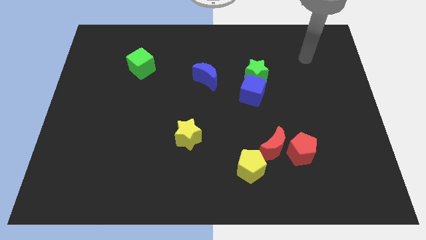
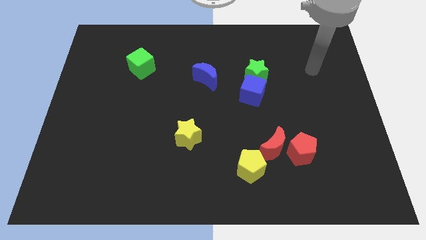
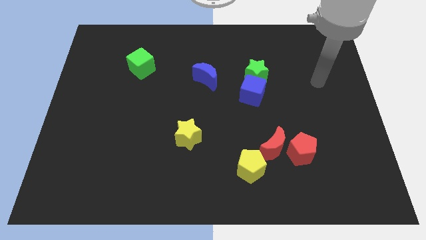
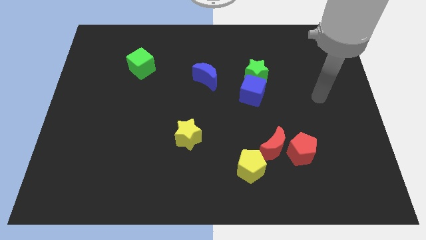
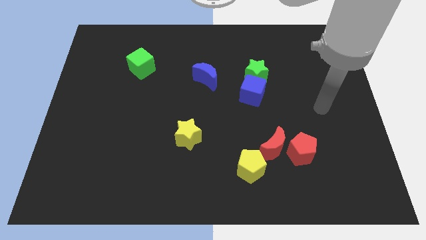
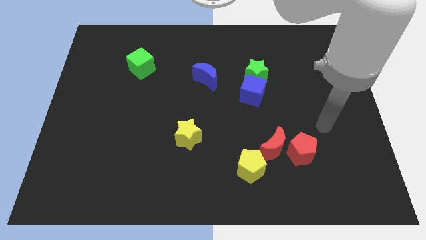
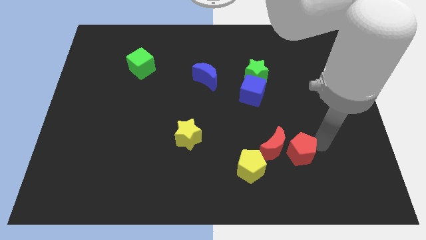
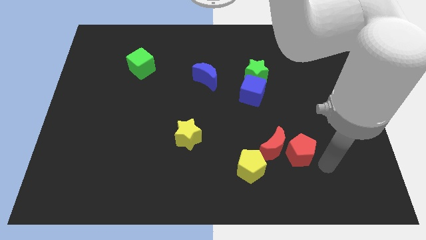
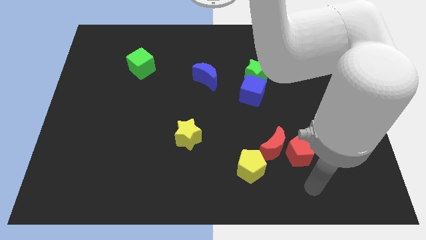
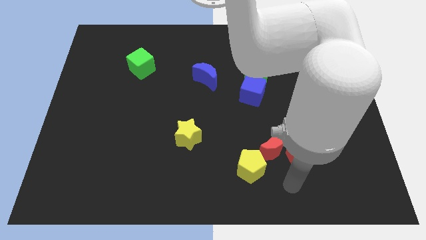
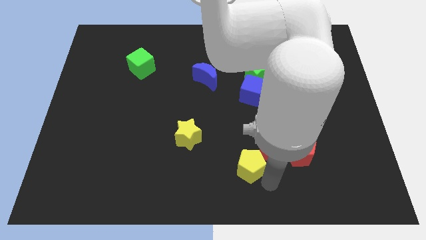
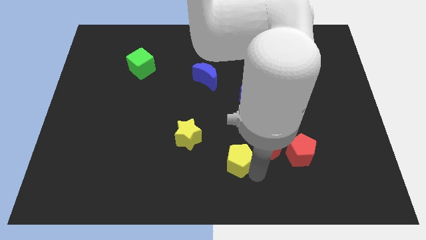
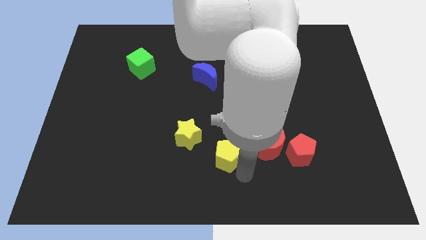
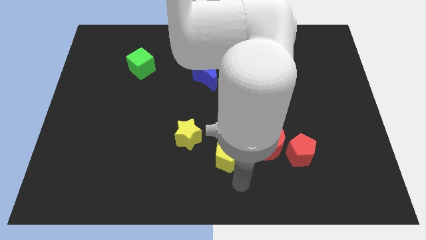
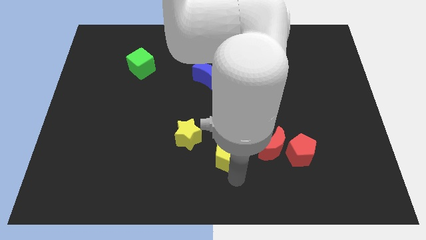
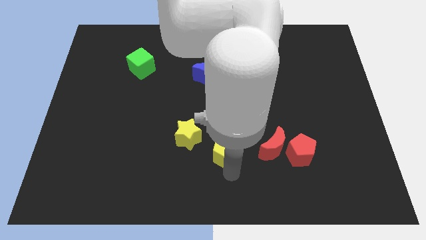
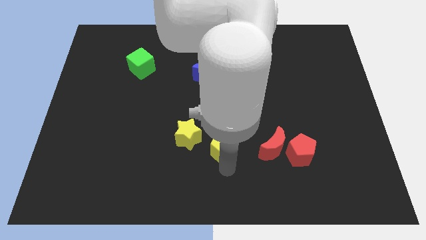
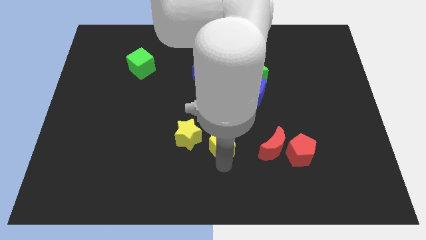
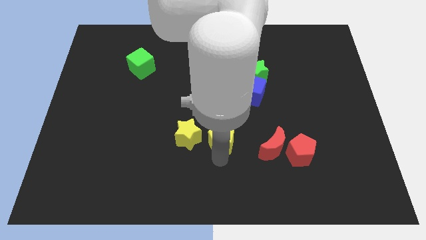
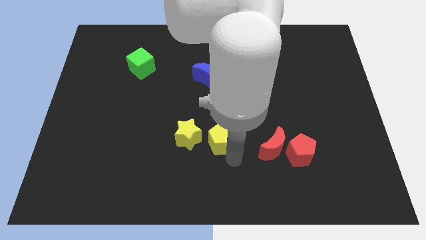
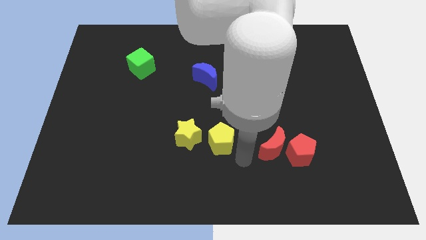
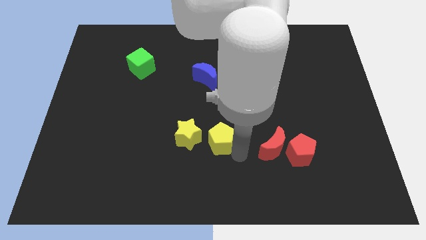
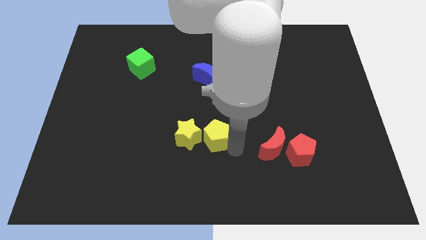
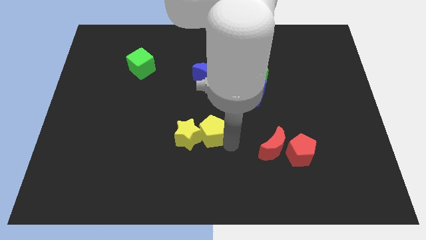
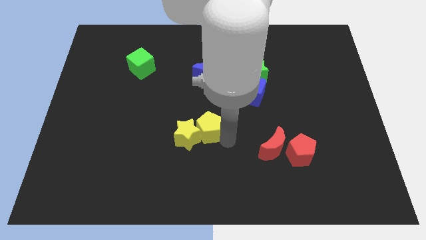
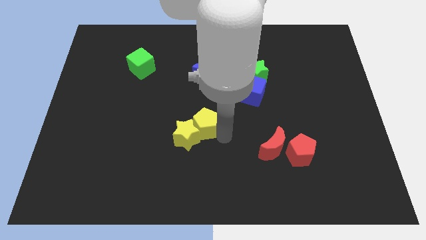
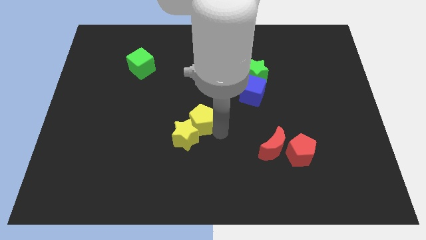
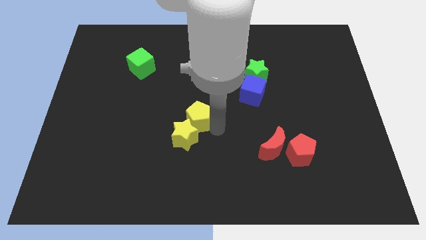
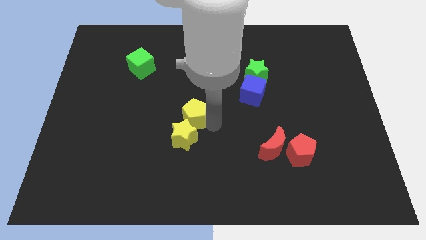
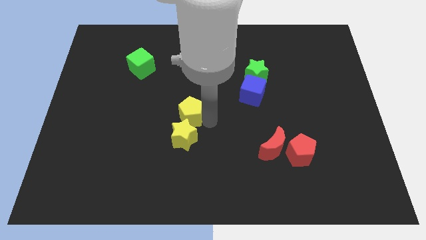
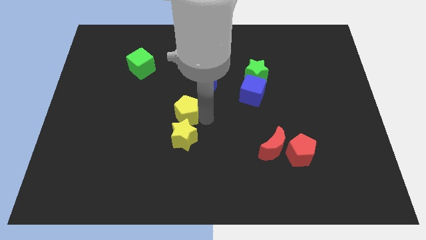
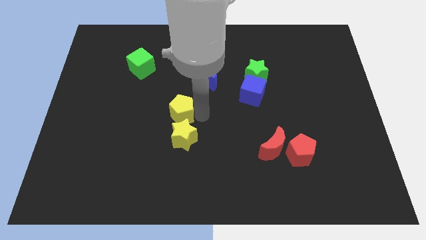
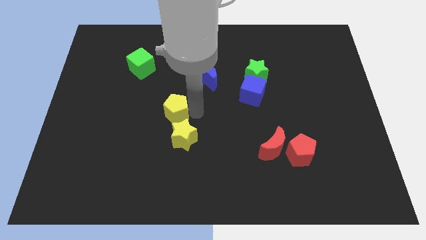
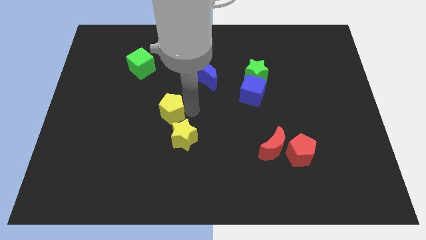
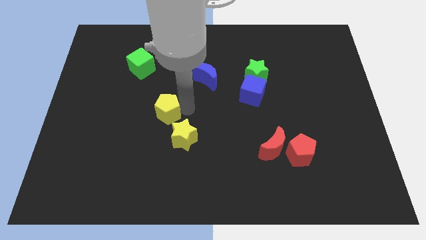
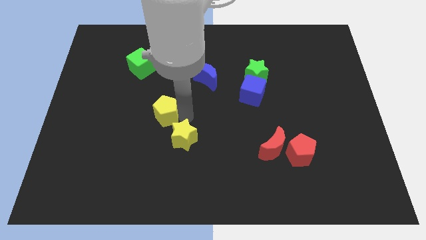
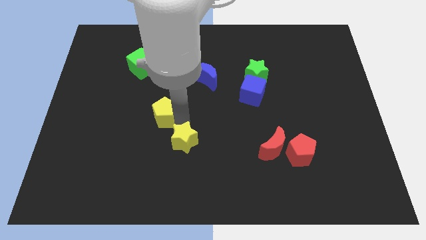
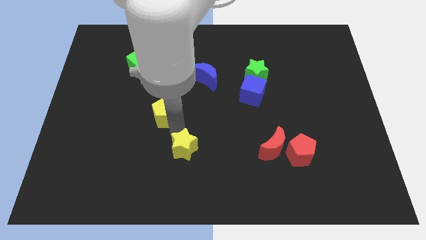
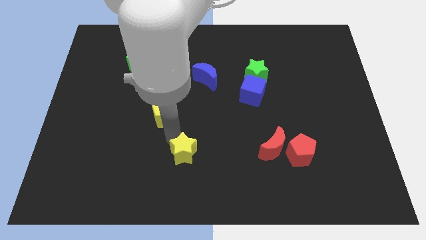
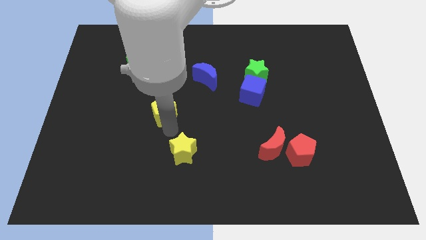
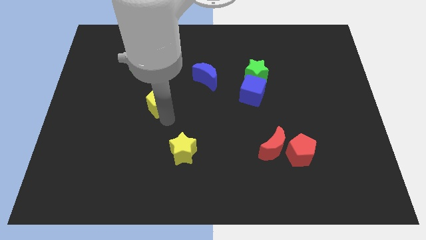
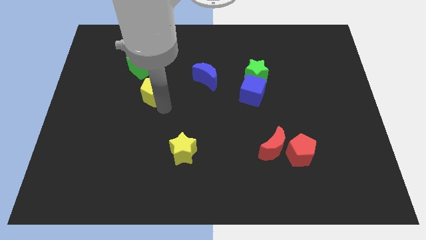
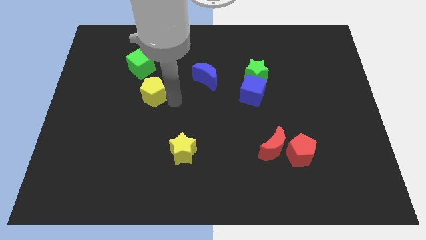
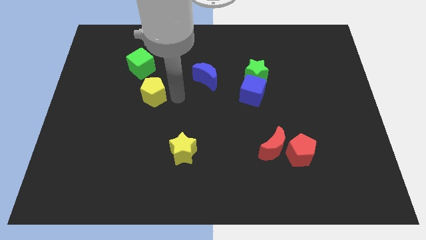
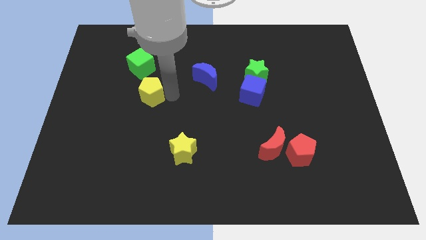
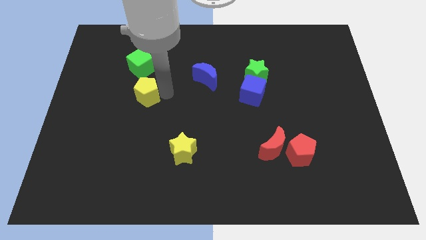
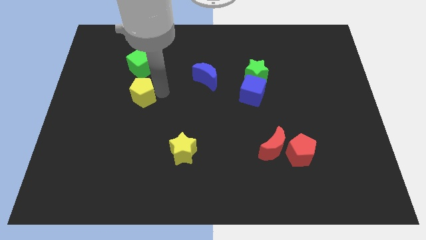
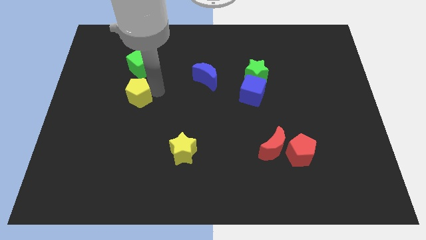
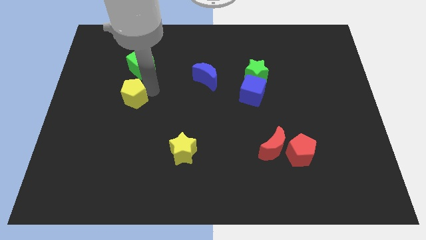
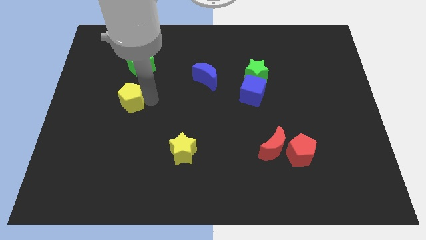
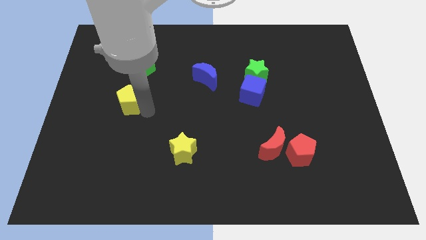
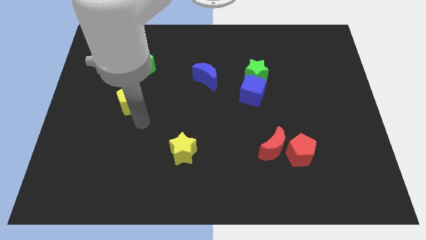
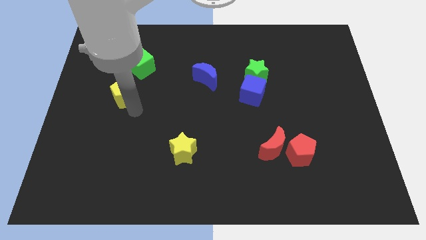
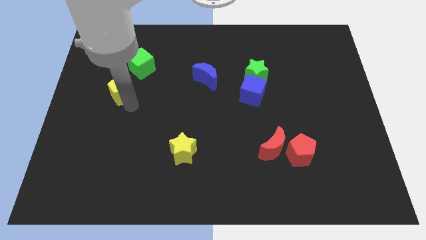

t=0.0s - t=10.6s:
move the yellow pentagon diagonally down and to the left of the green cube

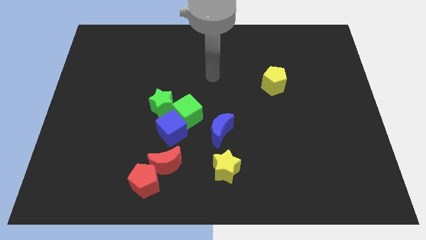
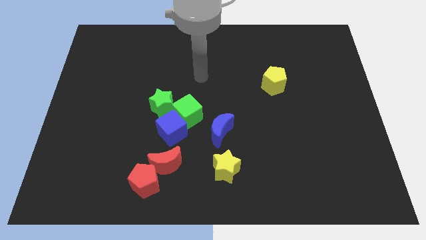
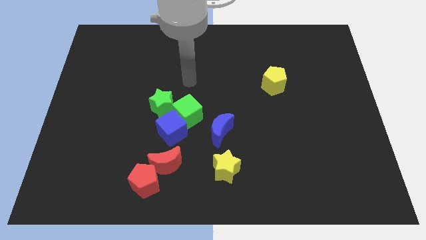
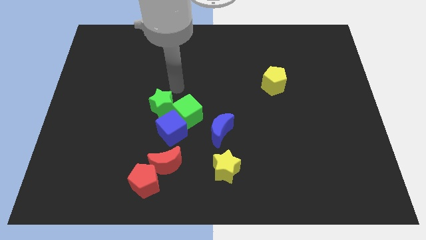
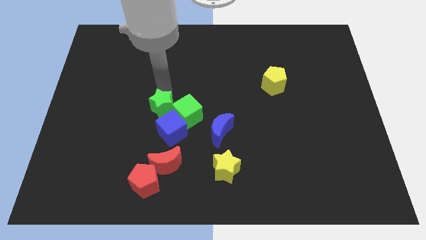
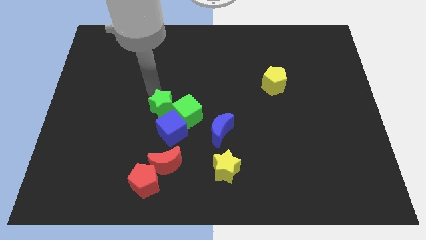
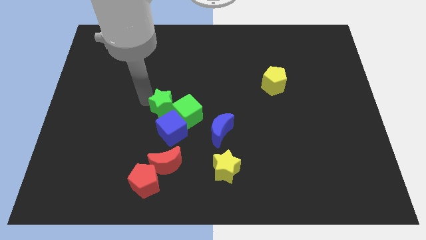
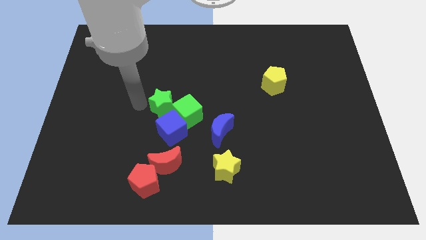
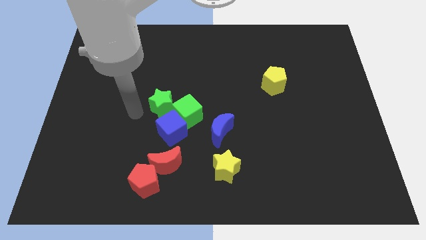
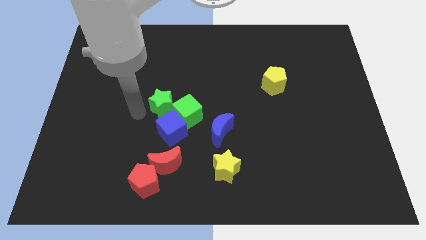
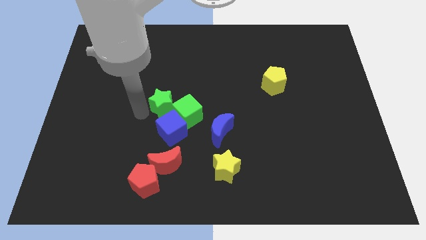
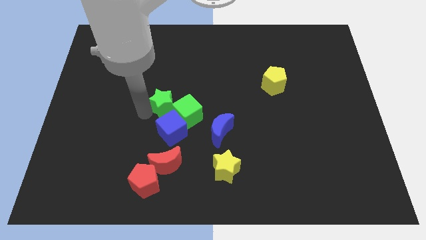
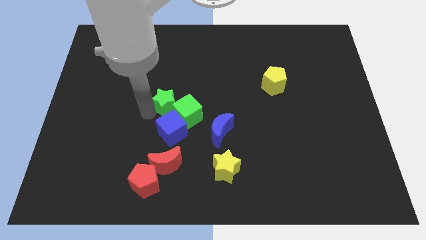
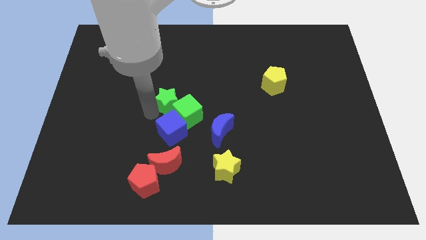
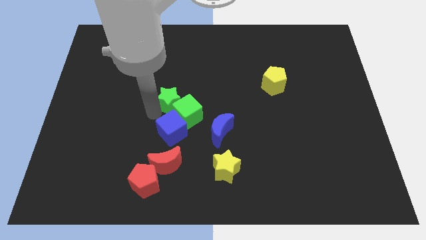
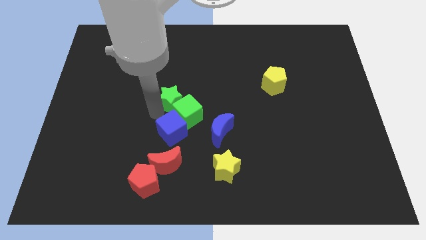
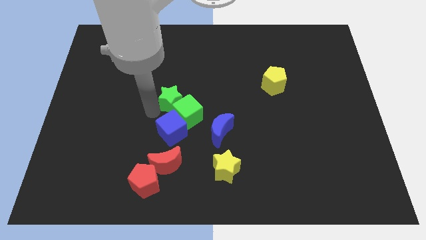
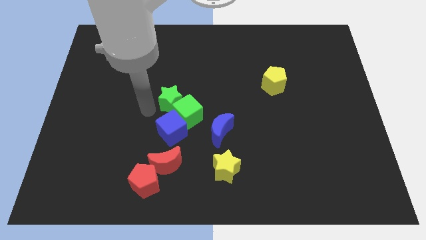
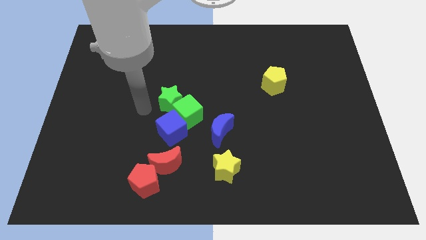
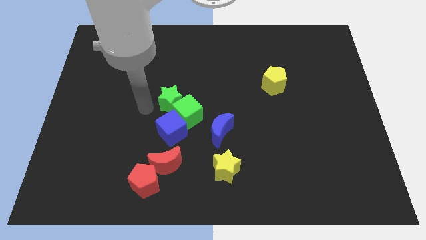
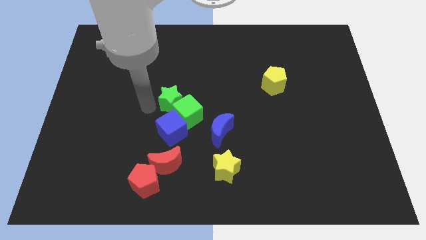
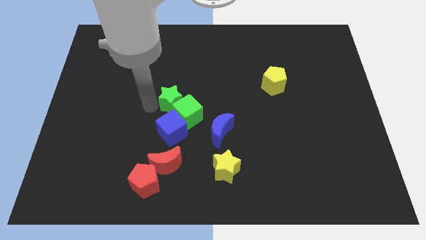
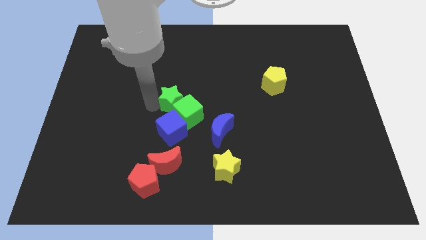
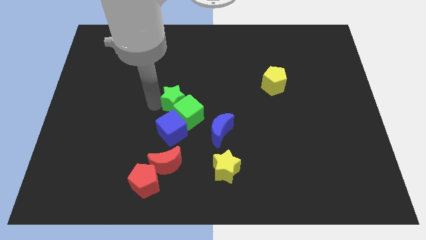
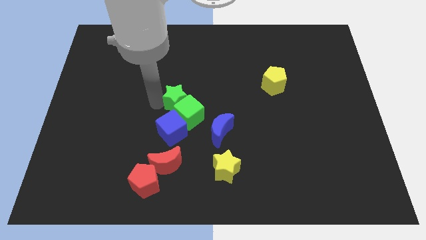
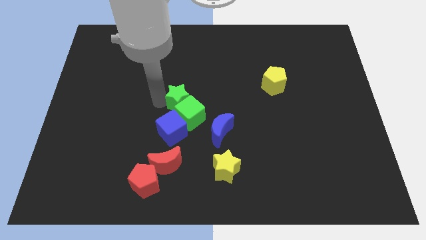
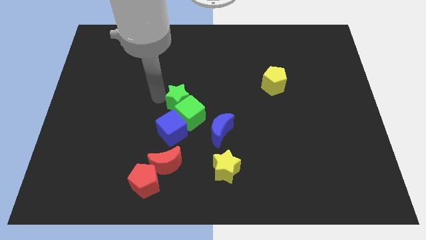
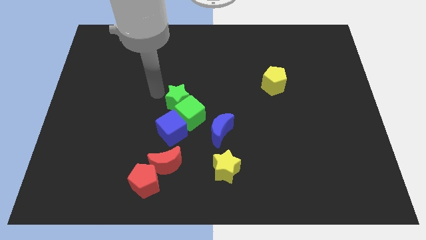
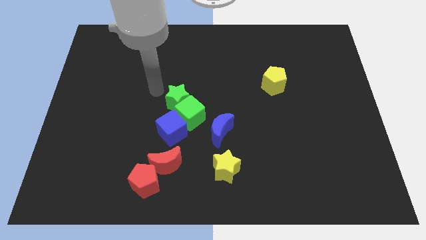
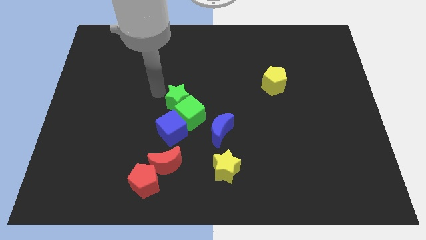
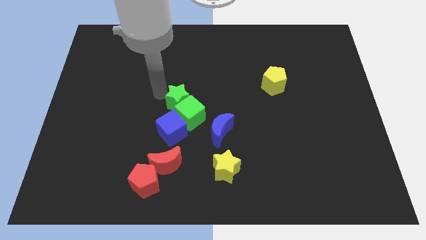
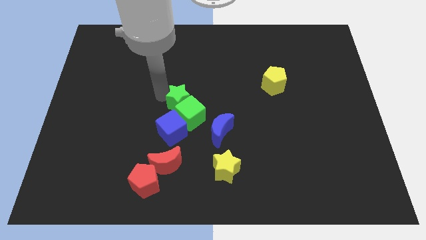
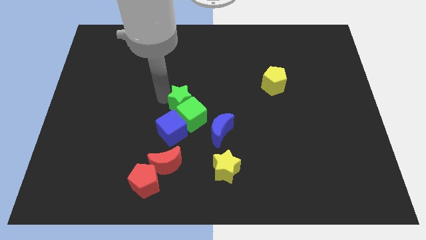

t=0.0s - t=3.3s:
put the green star to the top right side of the blue cube
